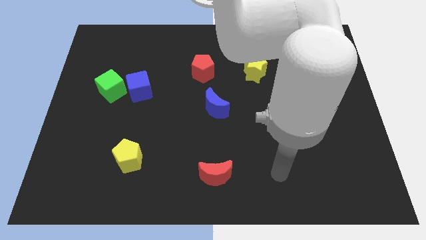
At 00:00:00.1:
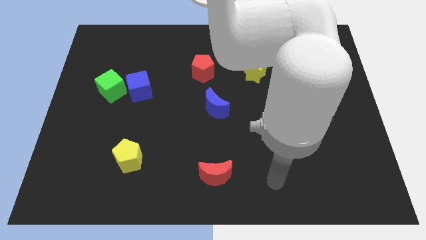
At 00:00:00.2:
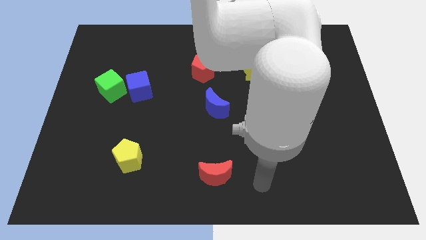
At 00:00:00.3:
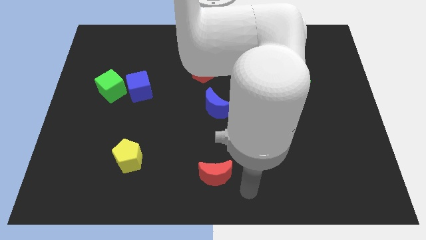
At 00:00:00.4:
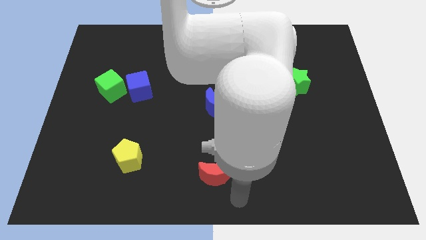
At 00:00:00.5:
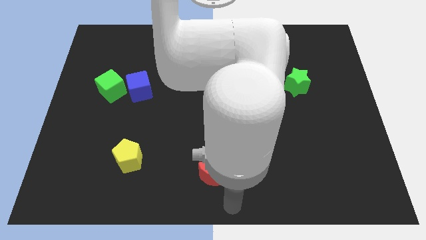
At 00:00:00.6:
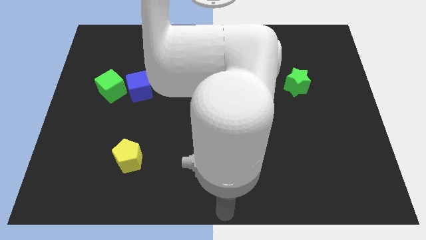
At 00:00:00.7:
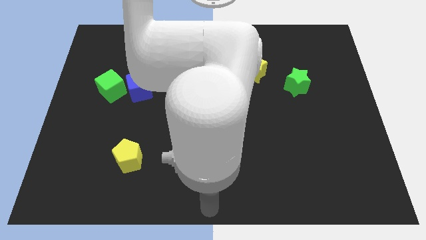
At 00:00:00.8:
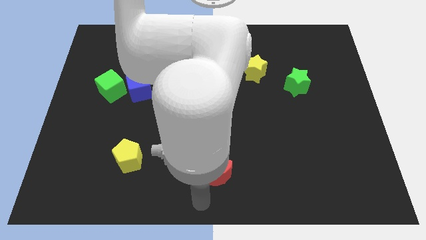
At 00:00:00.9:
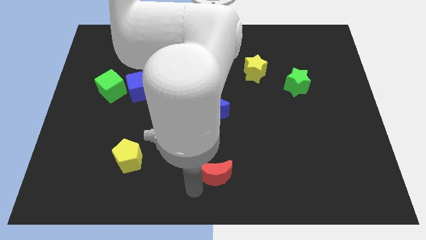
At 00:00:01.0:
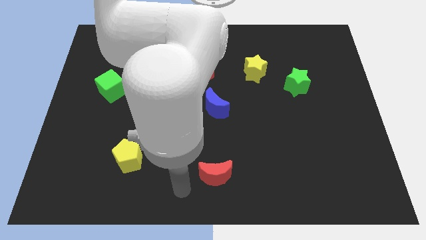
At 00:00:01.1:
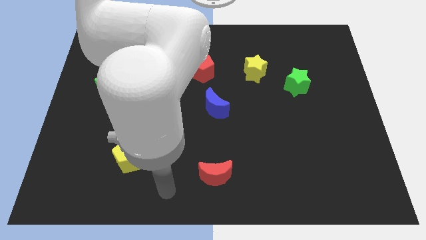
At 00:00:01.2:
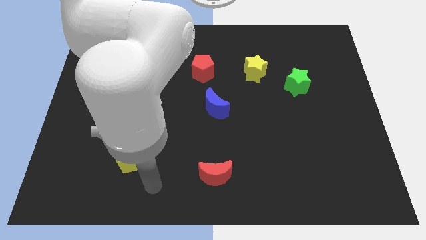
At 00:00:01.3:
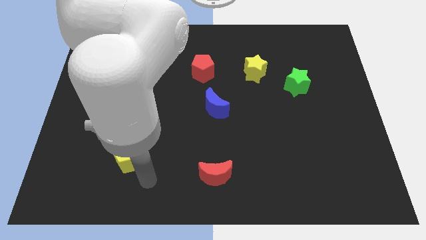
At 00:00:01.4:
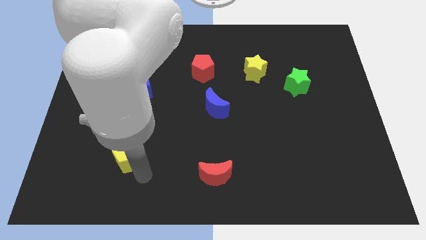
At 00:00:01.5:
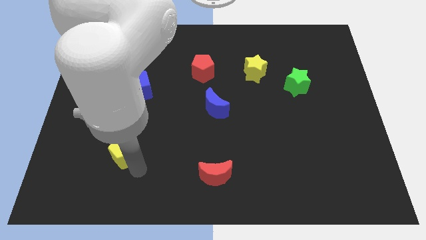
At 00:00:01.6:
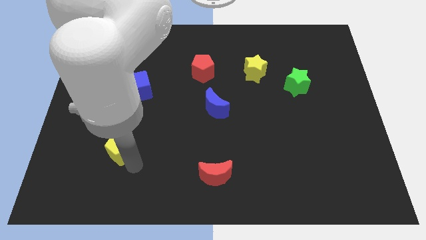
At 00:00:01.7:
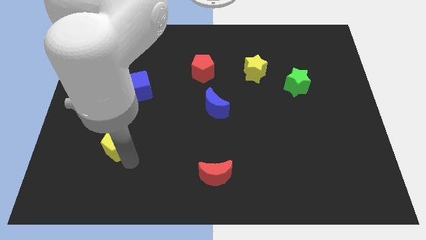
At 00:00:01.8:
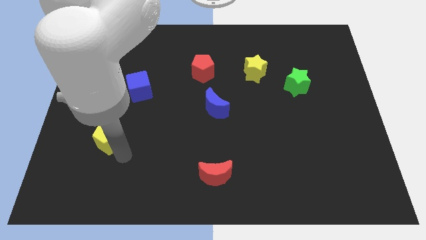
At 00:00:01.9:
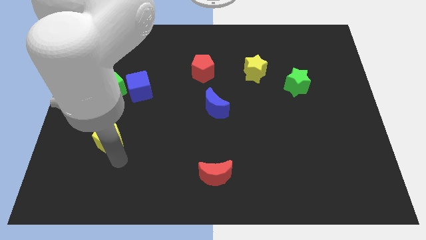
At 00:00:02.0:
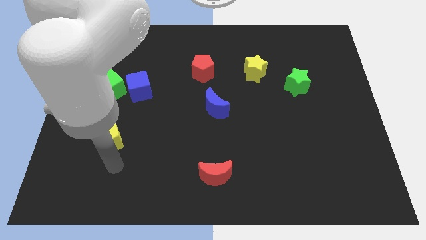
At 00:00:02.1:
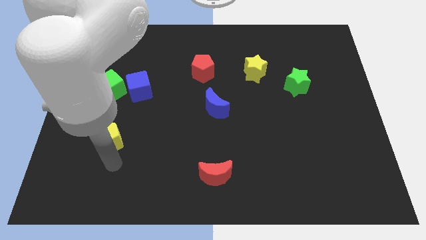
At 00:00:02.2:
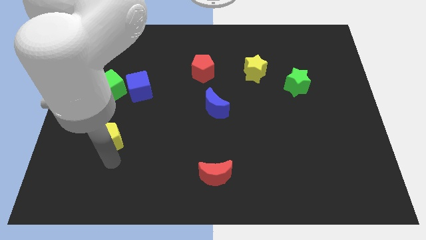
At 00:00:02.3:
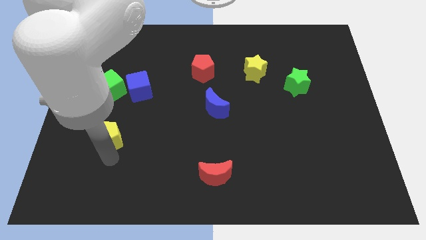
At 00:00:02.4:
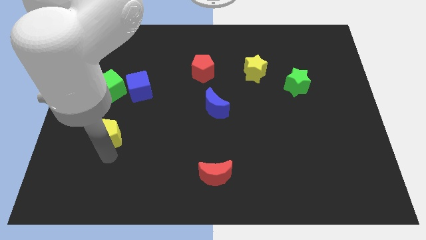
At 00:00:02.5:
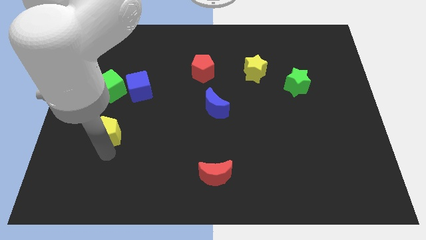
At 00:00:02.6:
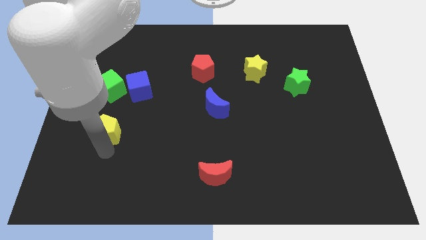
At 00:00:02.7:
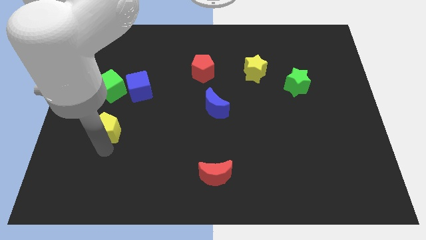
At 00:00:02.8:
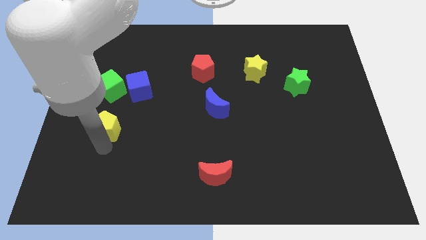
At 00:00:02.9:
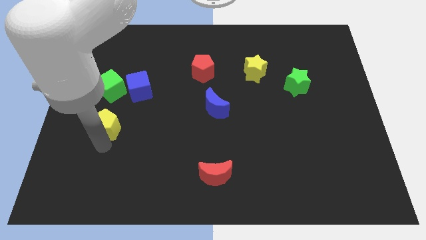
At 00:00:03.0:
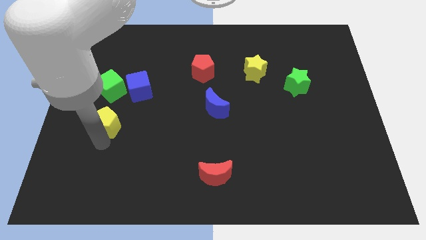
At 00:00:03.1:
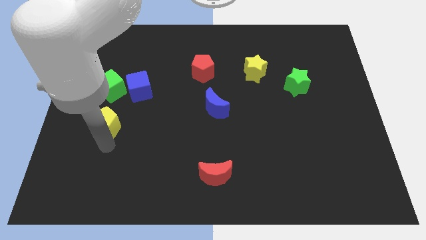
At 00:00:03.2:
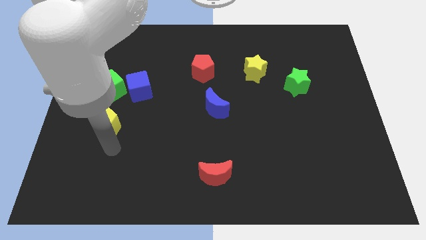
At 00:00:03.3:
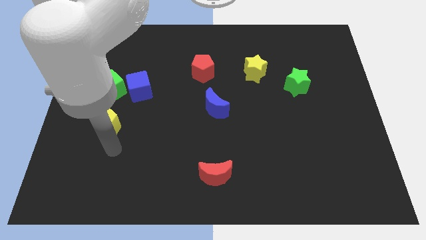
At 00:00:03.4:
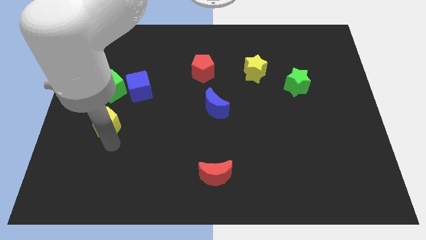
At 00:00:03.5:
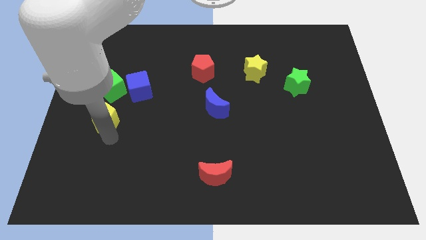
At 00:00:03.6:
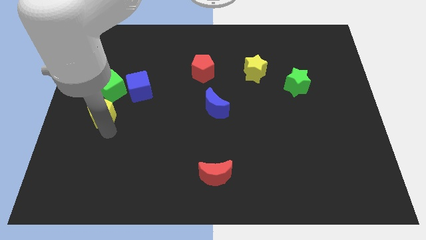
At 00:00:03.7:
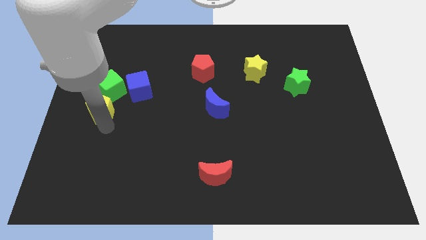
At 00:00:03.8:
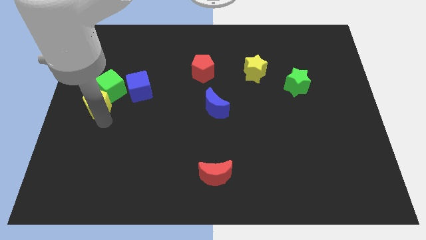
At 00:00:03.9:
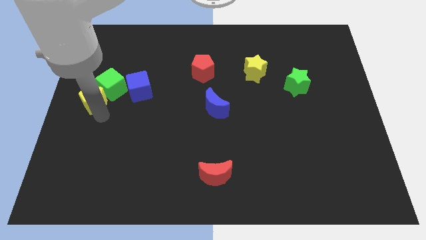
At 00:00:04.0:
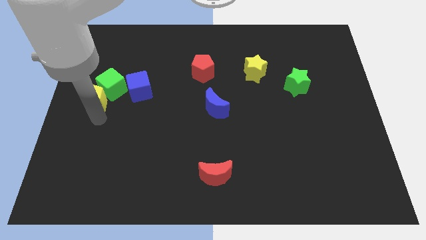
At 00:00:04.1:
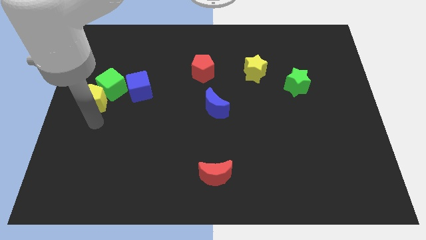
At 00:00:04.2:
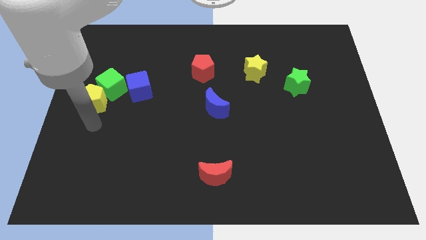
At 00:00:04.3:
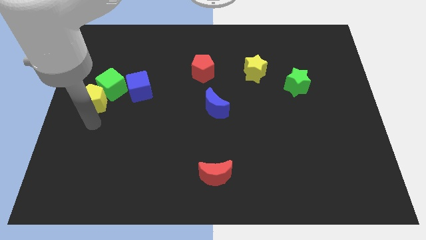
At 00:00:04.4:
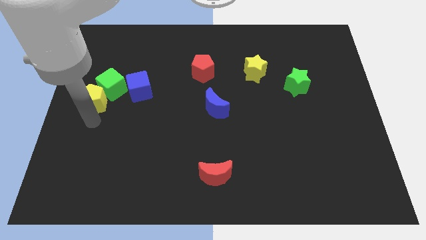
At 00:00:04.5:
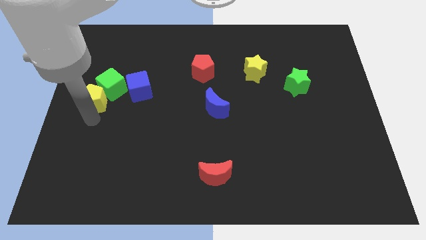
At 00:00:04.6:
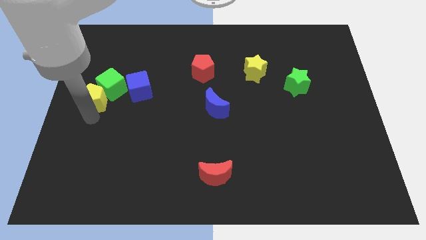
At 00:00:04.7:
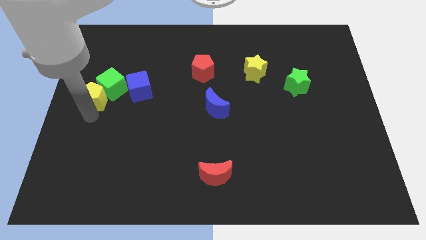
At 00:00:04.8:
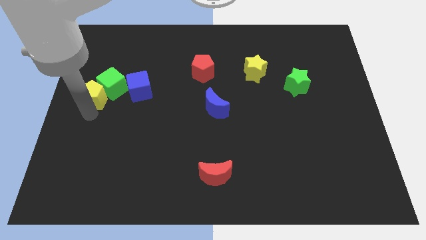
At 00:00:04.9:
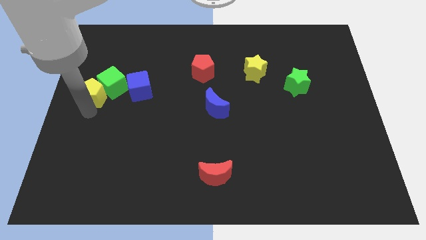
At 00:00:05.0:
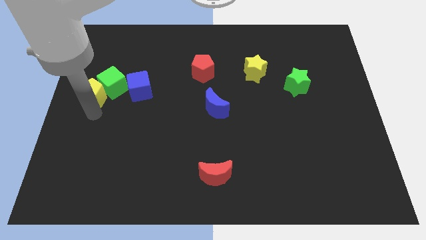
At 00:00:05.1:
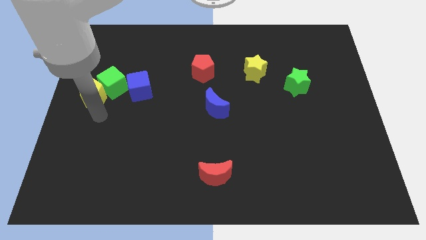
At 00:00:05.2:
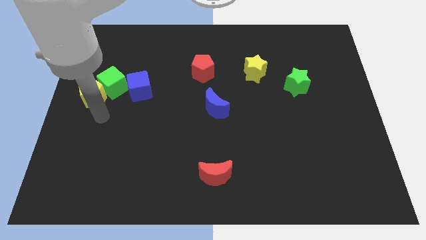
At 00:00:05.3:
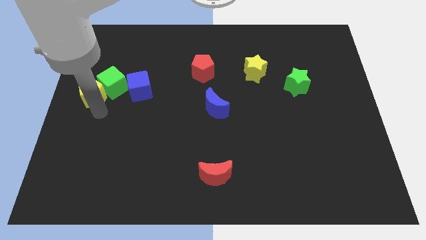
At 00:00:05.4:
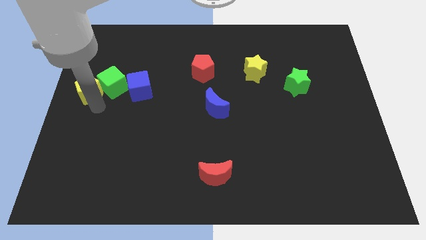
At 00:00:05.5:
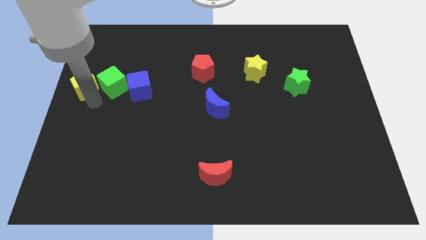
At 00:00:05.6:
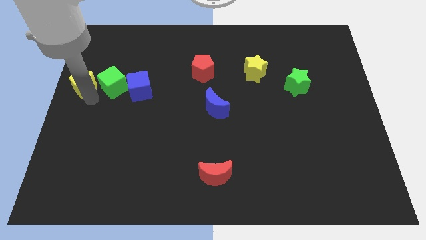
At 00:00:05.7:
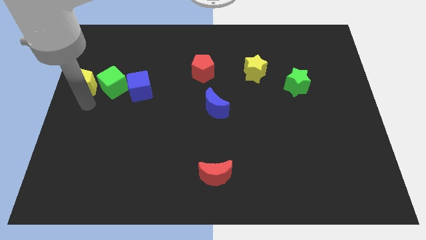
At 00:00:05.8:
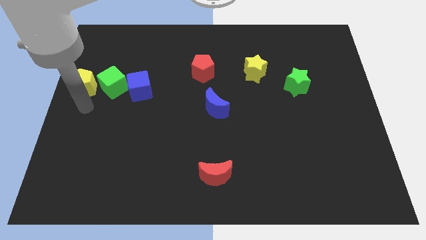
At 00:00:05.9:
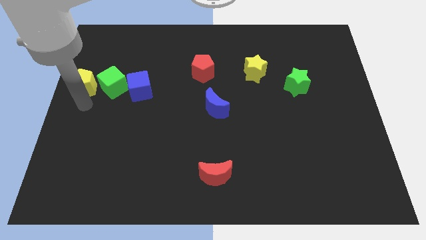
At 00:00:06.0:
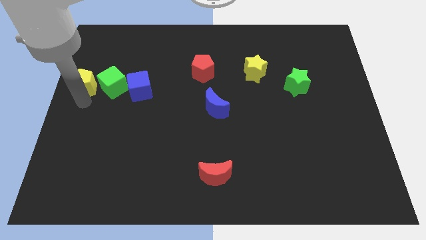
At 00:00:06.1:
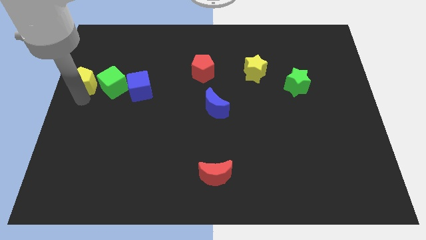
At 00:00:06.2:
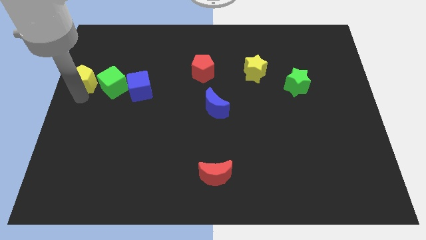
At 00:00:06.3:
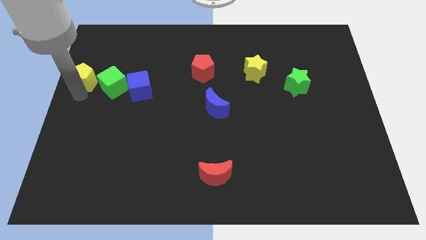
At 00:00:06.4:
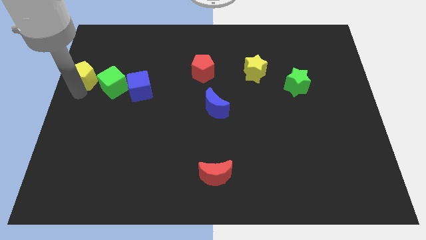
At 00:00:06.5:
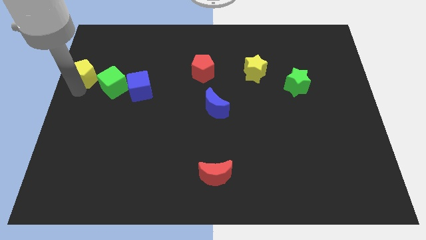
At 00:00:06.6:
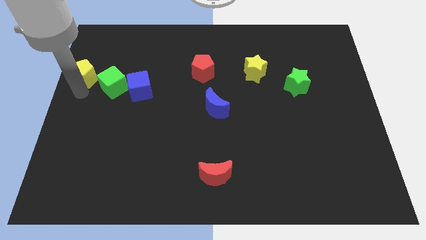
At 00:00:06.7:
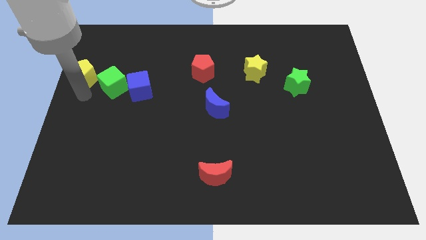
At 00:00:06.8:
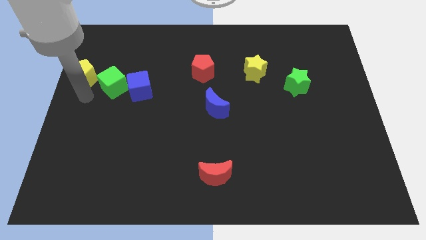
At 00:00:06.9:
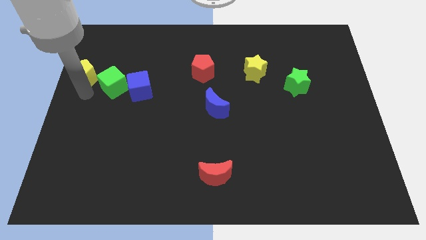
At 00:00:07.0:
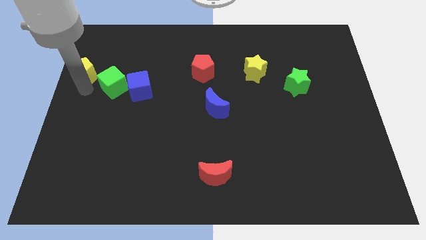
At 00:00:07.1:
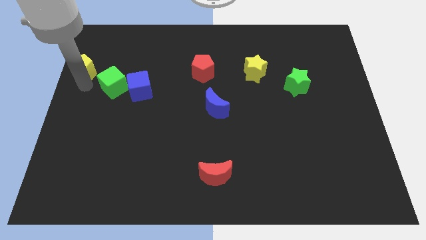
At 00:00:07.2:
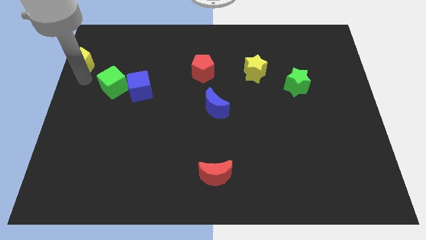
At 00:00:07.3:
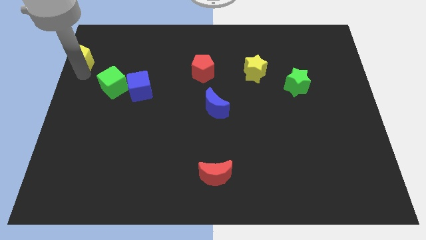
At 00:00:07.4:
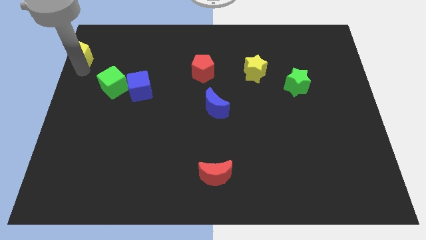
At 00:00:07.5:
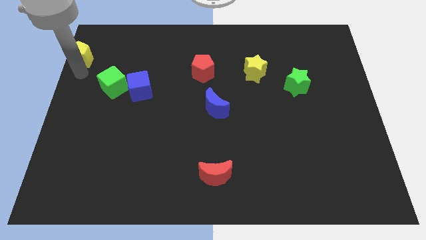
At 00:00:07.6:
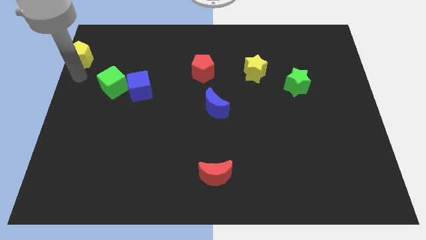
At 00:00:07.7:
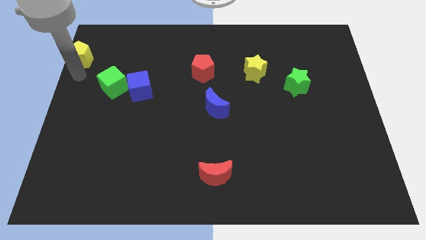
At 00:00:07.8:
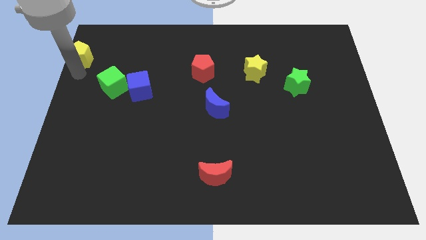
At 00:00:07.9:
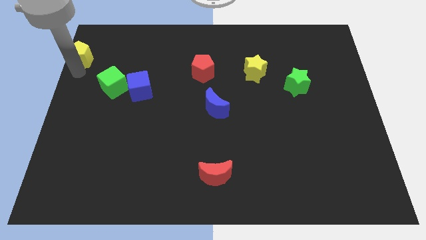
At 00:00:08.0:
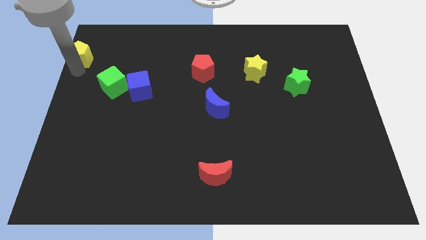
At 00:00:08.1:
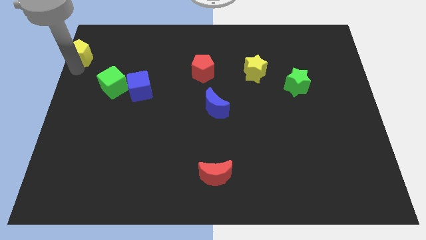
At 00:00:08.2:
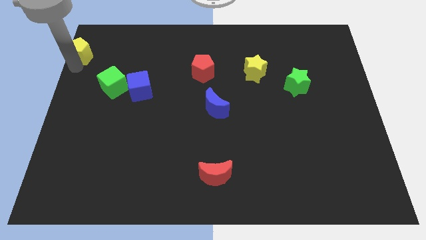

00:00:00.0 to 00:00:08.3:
move the yellow pentagon to the upper left corner
